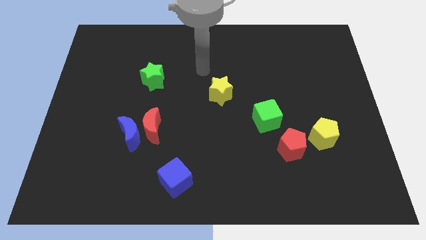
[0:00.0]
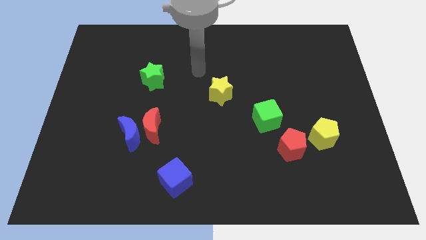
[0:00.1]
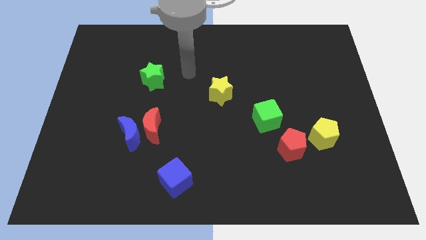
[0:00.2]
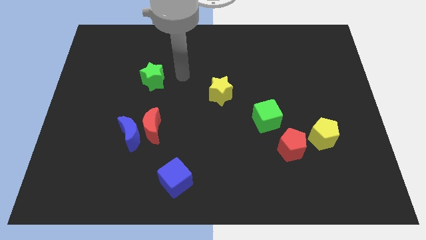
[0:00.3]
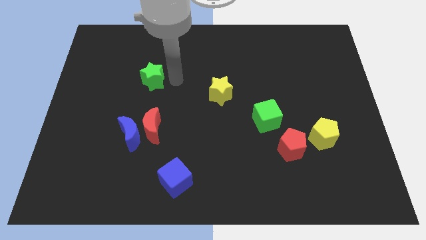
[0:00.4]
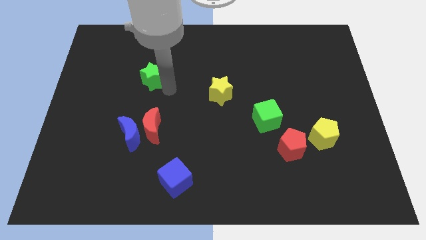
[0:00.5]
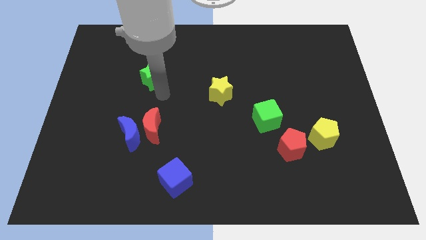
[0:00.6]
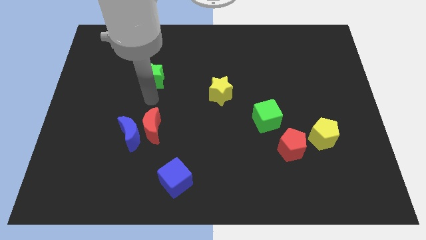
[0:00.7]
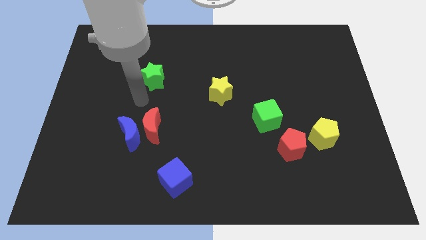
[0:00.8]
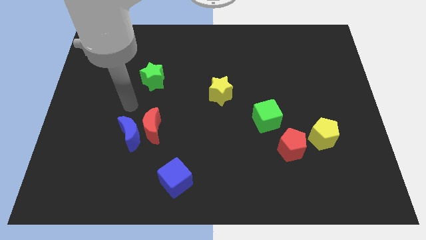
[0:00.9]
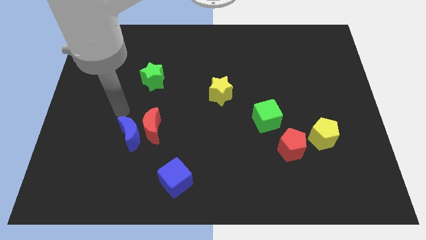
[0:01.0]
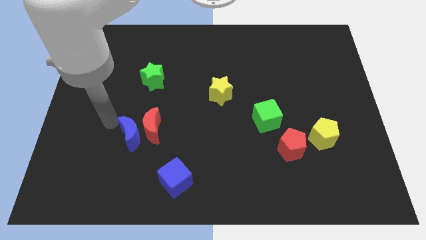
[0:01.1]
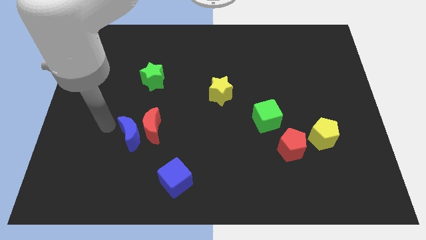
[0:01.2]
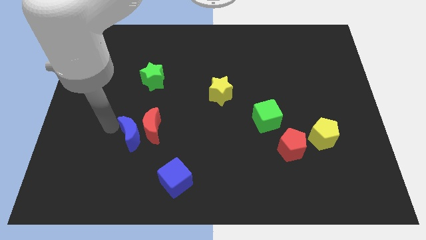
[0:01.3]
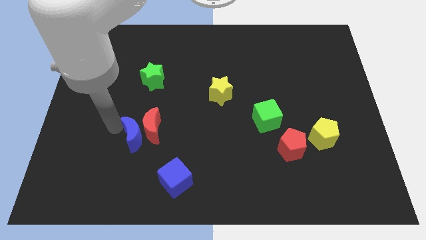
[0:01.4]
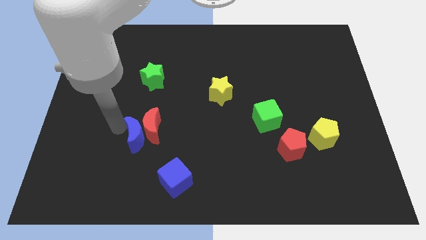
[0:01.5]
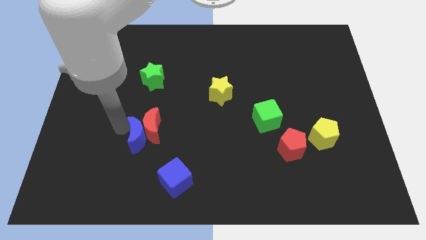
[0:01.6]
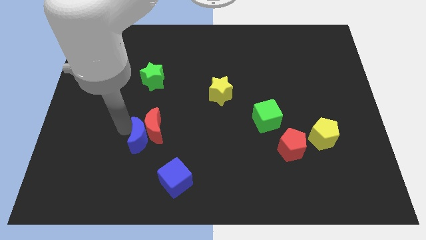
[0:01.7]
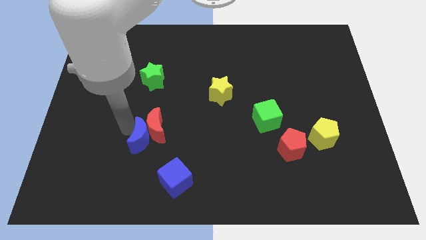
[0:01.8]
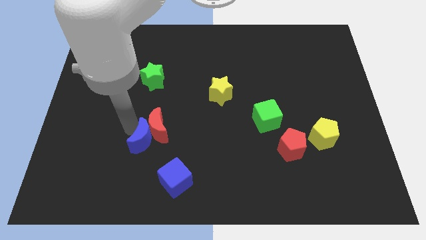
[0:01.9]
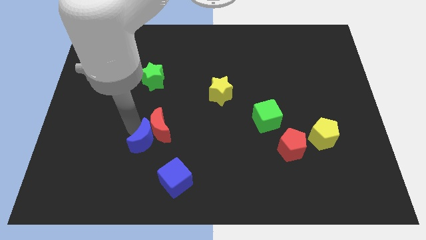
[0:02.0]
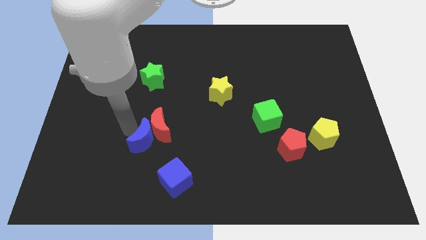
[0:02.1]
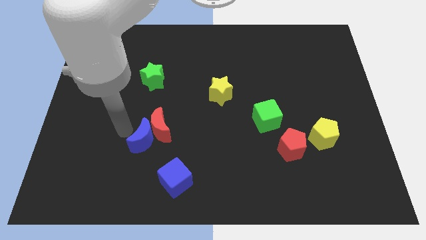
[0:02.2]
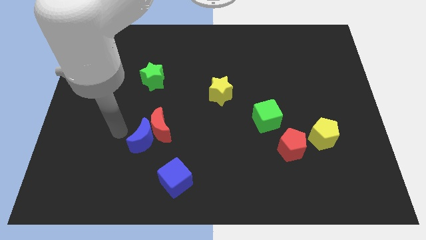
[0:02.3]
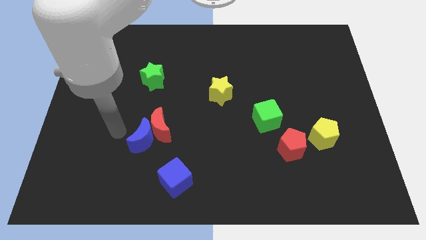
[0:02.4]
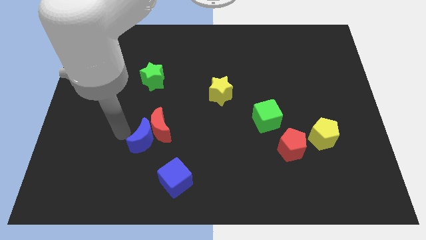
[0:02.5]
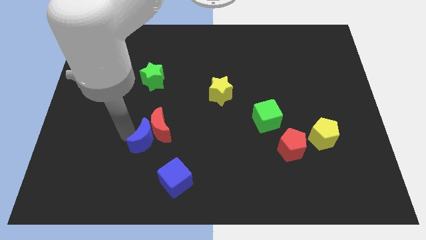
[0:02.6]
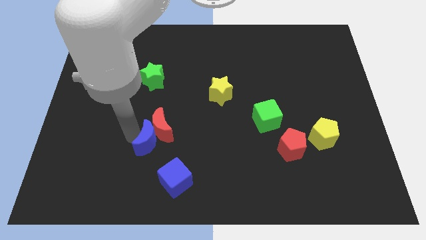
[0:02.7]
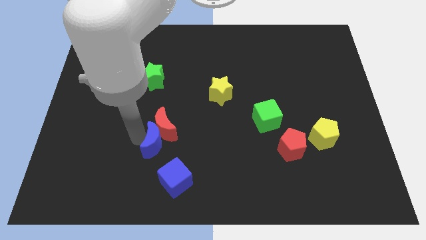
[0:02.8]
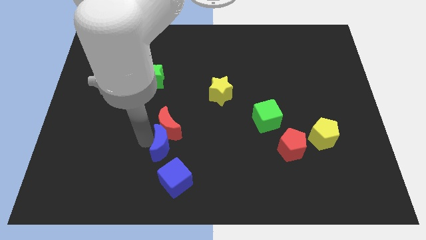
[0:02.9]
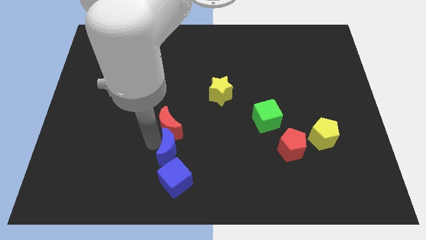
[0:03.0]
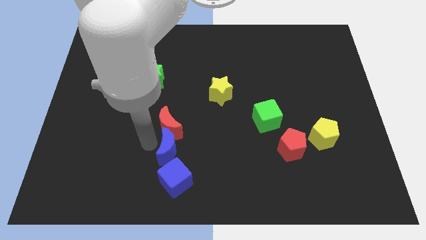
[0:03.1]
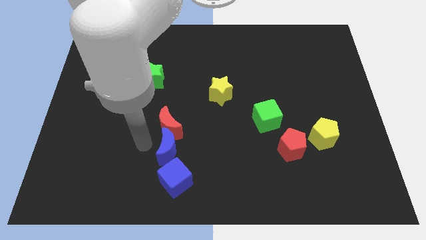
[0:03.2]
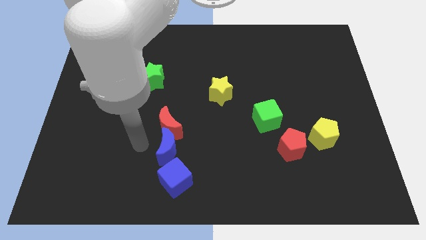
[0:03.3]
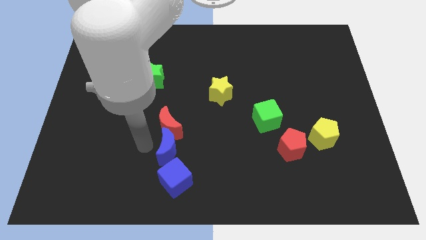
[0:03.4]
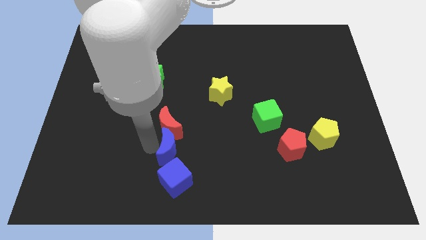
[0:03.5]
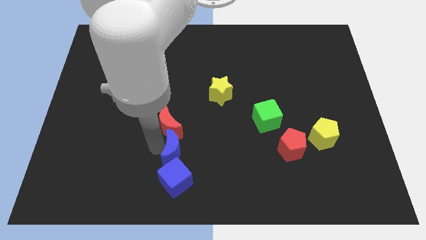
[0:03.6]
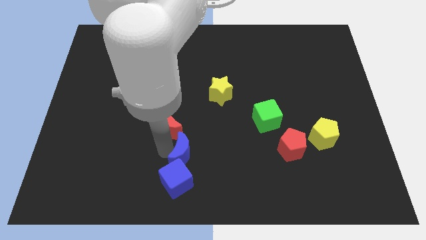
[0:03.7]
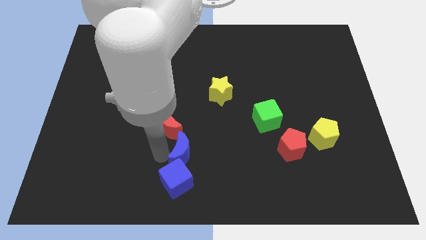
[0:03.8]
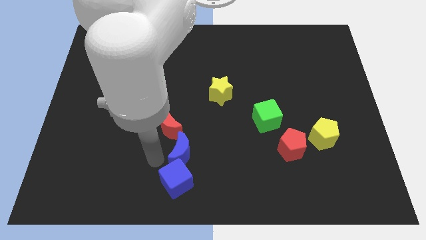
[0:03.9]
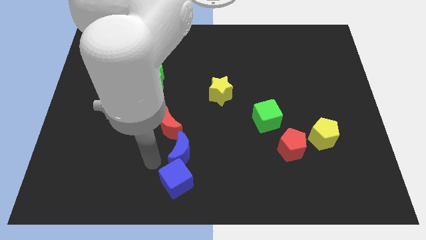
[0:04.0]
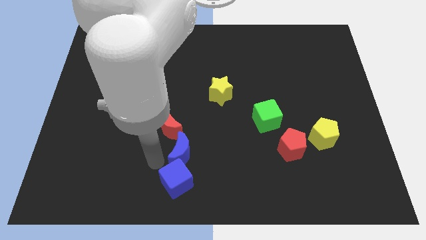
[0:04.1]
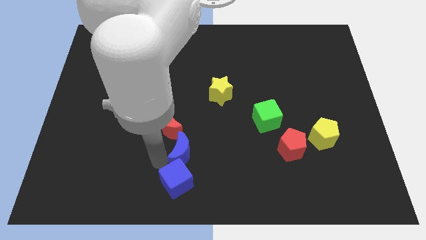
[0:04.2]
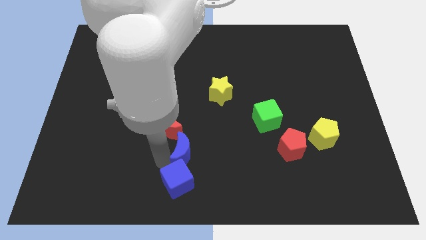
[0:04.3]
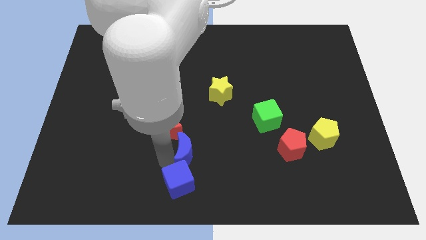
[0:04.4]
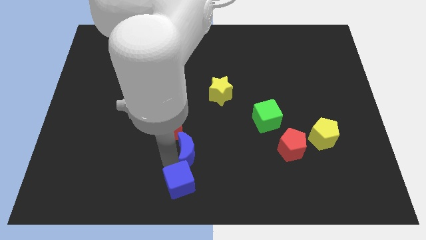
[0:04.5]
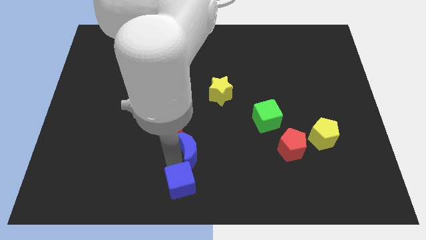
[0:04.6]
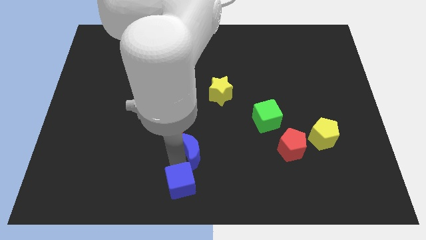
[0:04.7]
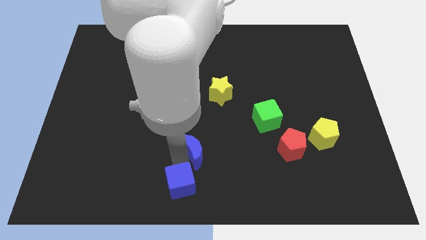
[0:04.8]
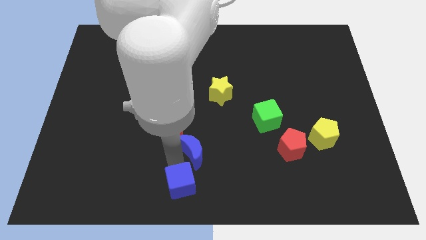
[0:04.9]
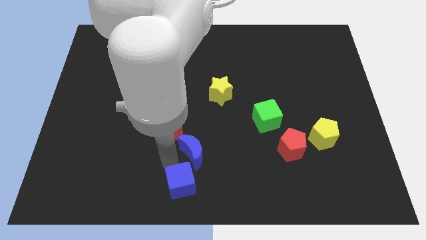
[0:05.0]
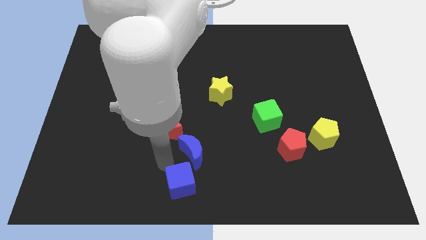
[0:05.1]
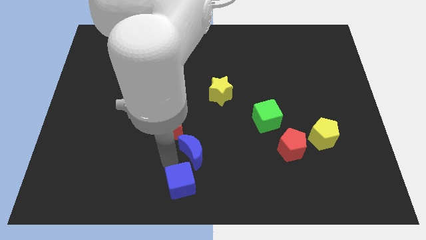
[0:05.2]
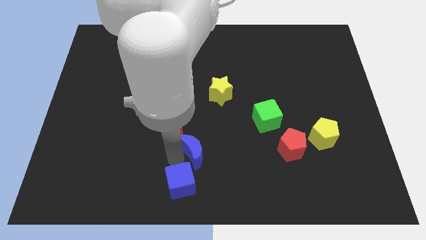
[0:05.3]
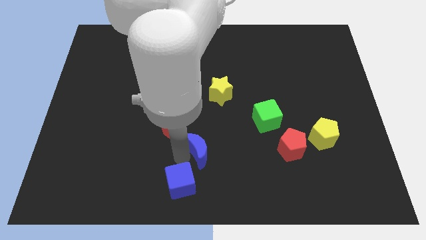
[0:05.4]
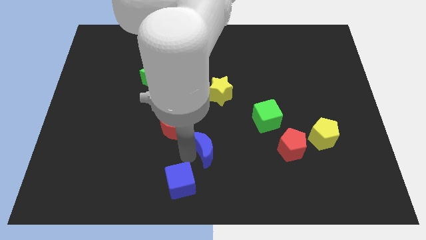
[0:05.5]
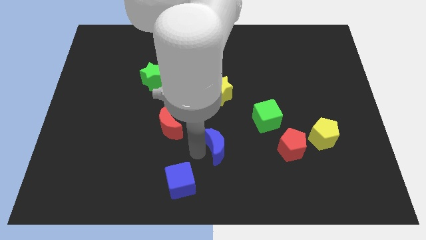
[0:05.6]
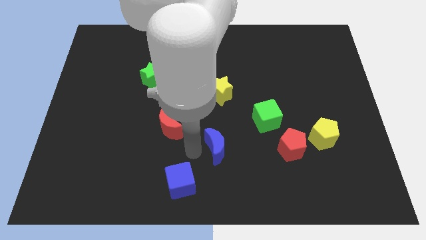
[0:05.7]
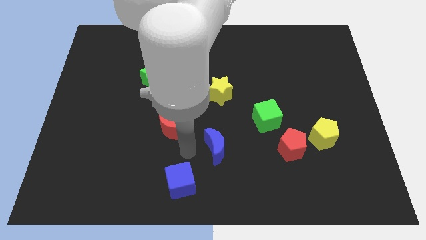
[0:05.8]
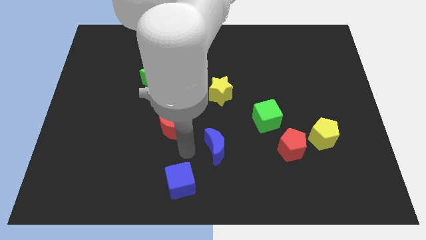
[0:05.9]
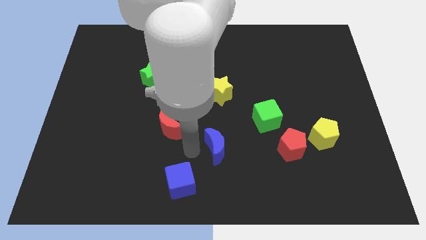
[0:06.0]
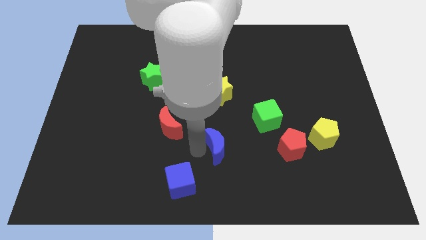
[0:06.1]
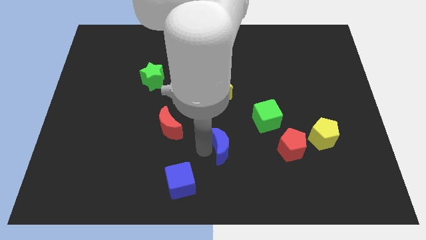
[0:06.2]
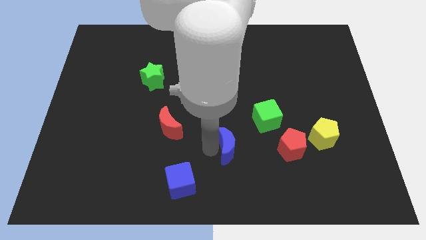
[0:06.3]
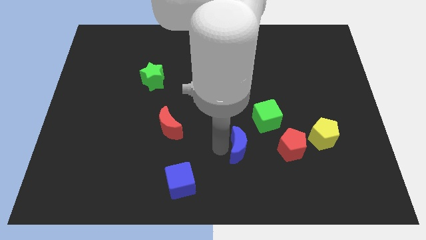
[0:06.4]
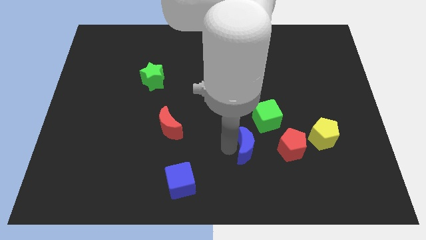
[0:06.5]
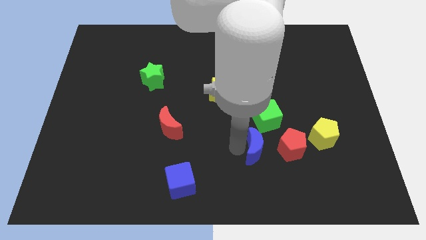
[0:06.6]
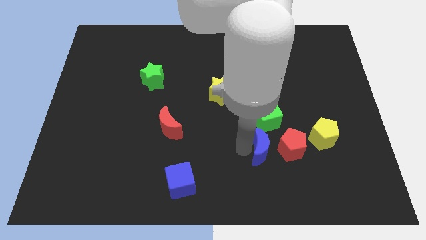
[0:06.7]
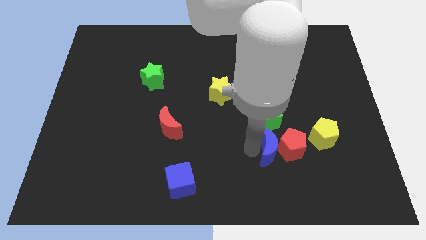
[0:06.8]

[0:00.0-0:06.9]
put the blue moon to the red pentagon

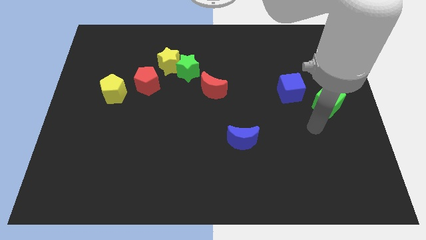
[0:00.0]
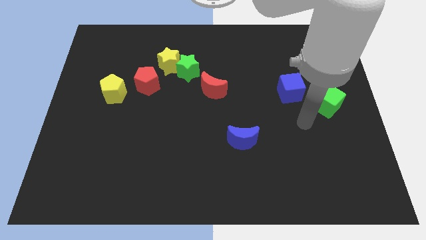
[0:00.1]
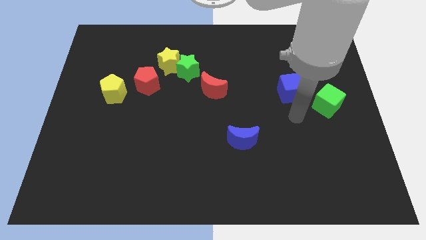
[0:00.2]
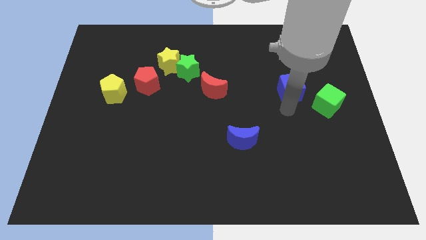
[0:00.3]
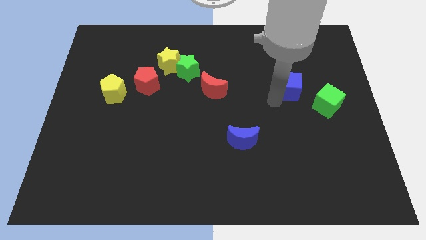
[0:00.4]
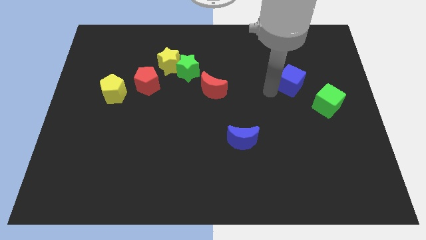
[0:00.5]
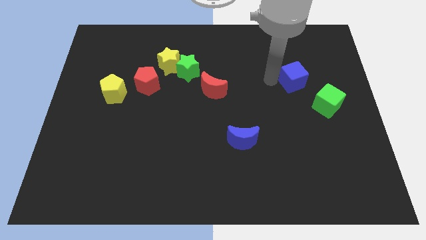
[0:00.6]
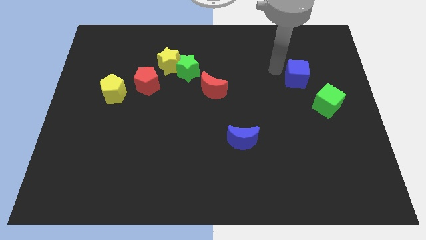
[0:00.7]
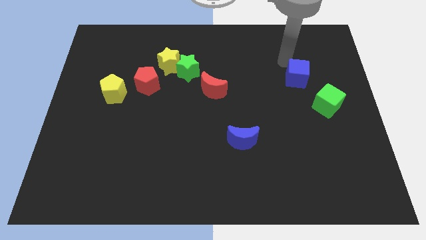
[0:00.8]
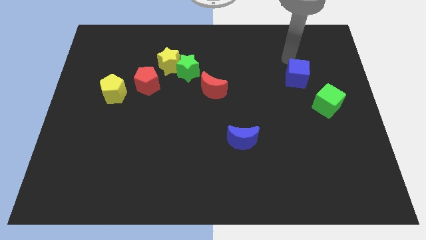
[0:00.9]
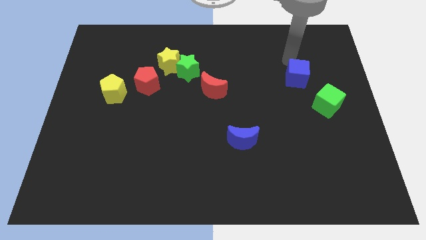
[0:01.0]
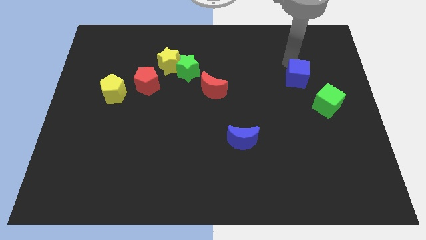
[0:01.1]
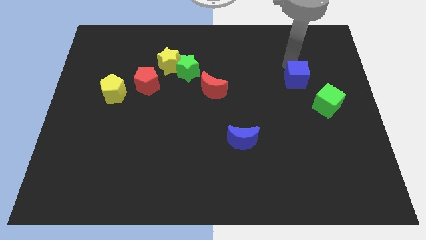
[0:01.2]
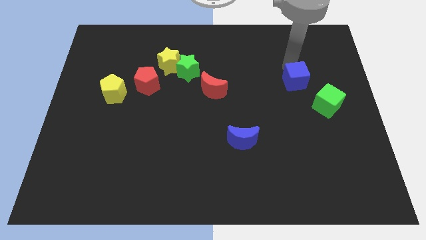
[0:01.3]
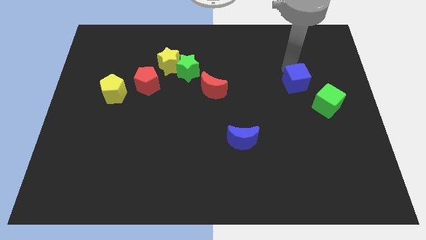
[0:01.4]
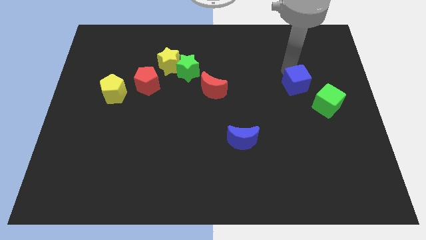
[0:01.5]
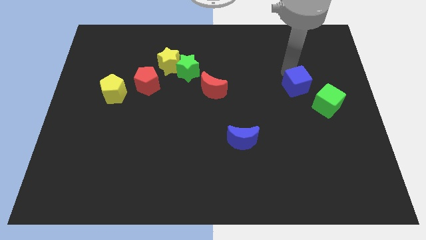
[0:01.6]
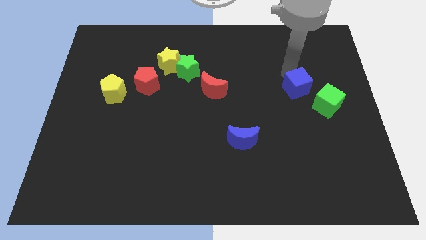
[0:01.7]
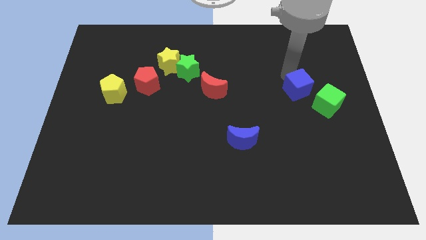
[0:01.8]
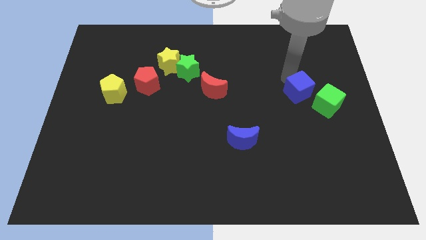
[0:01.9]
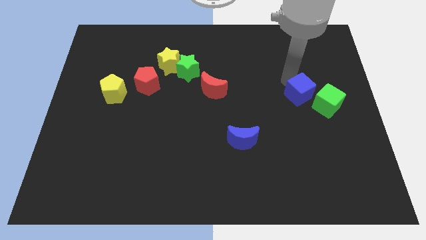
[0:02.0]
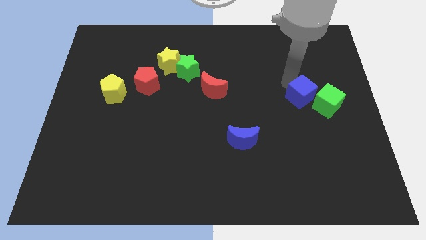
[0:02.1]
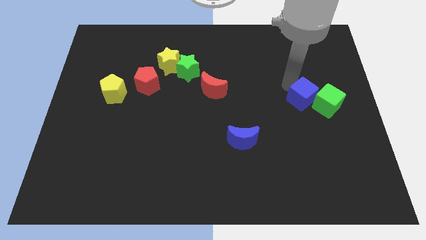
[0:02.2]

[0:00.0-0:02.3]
slide the blue cube to the green cube
